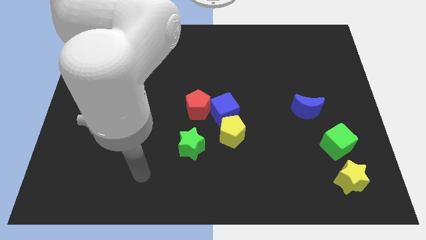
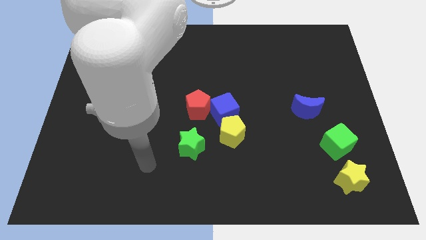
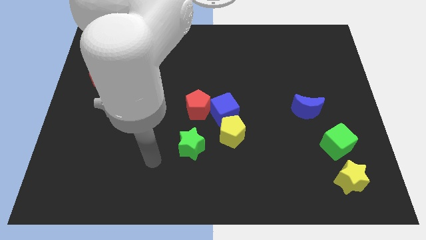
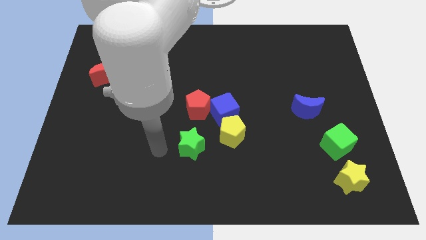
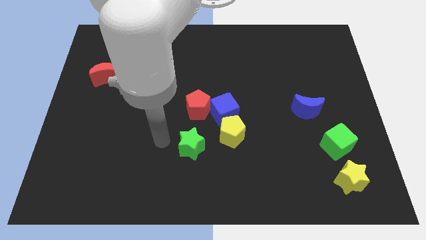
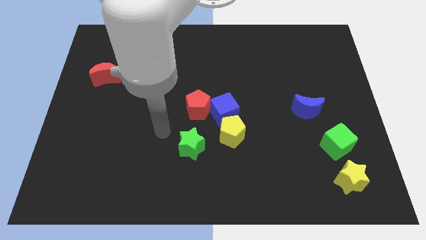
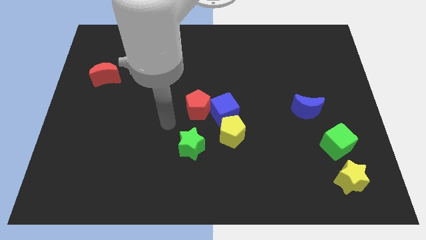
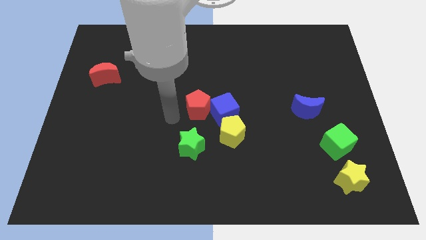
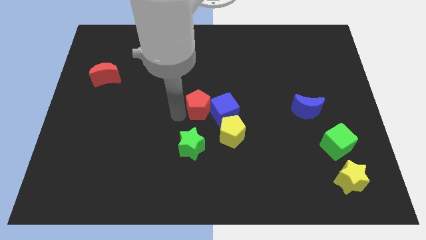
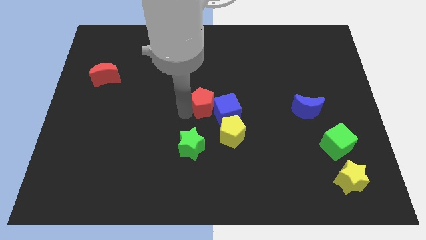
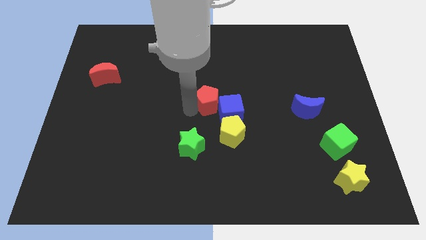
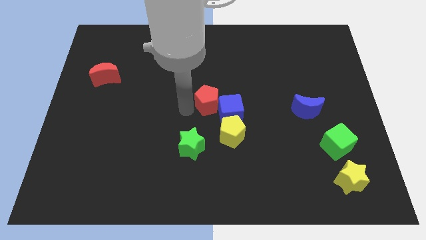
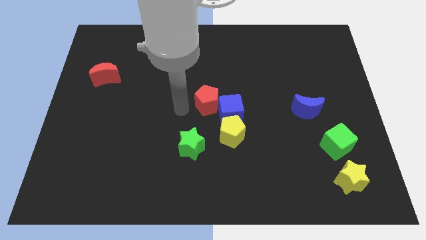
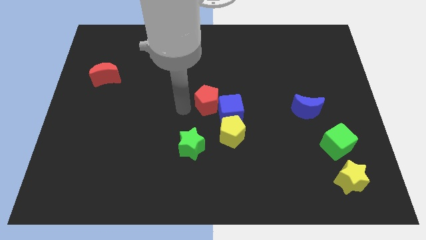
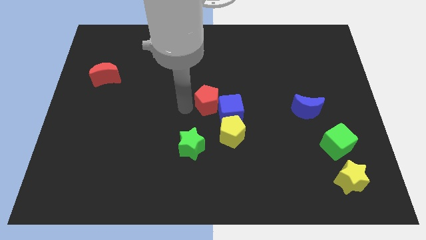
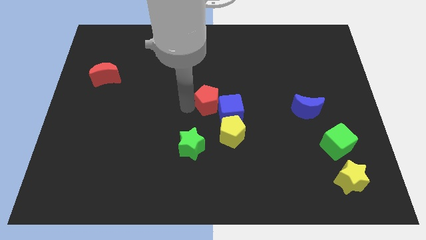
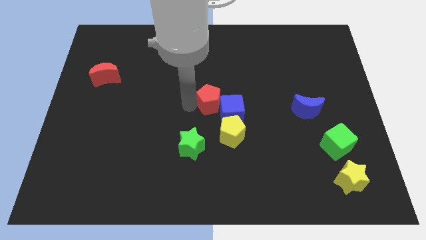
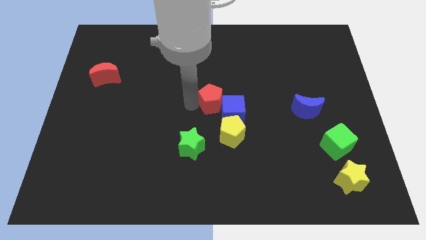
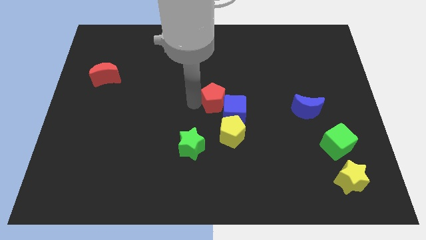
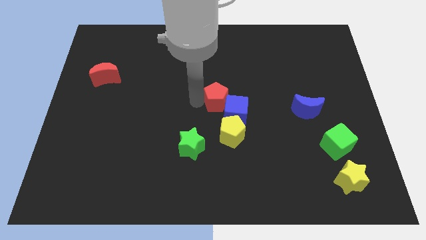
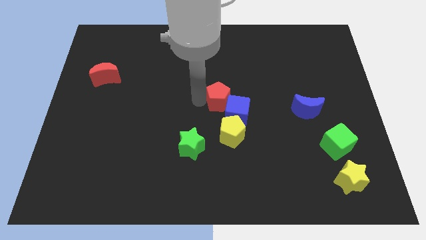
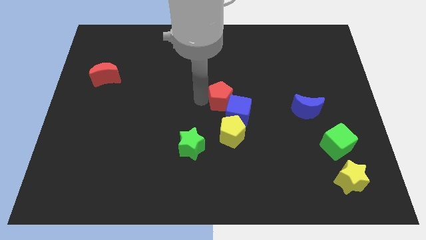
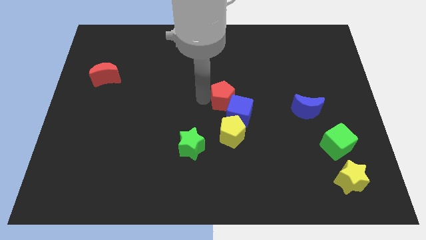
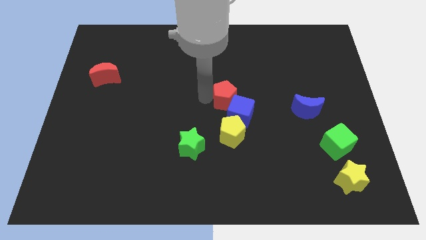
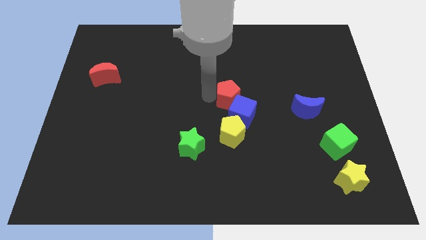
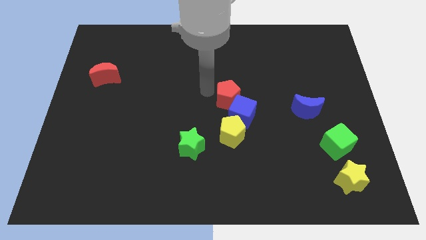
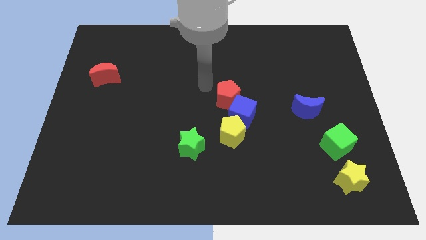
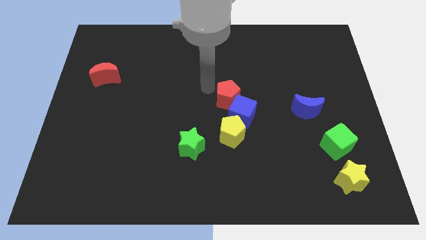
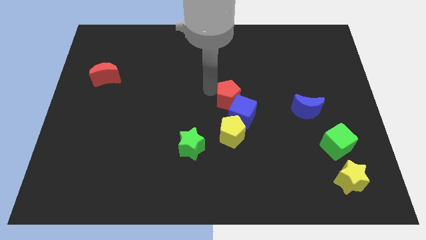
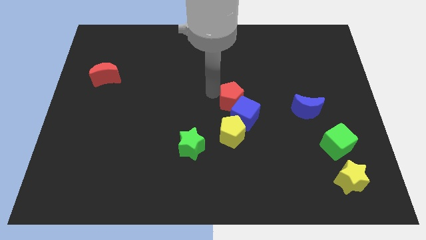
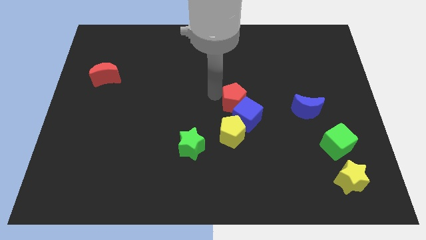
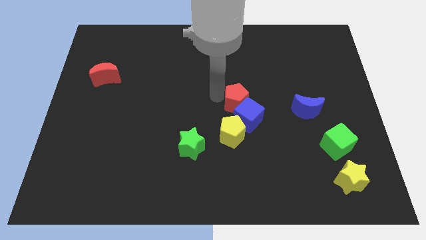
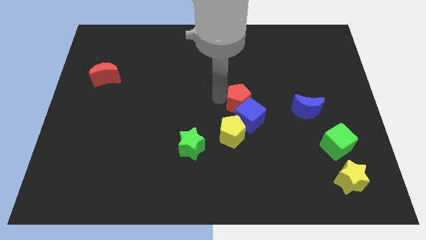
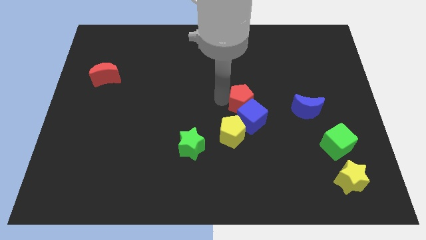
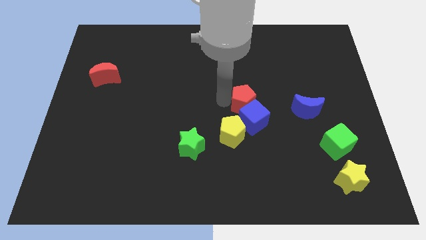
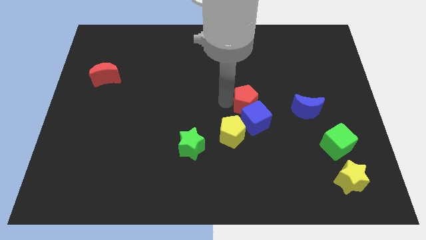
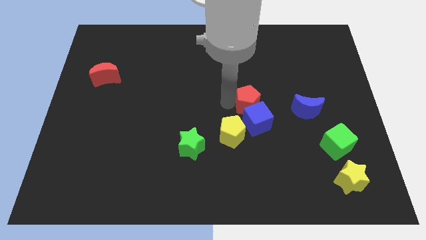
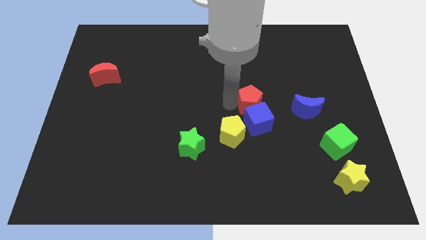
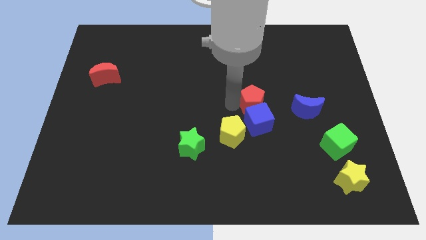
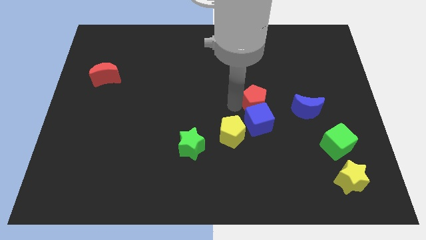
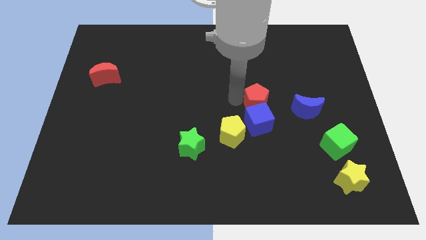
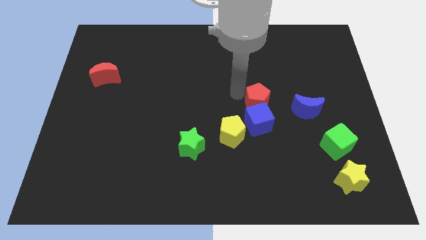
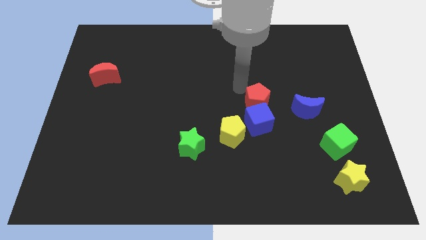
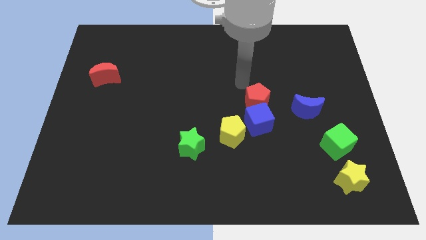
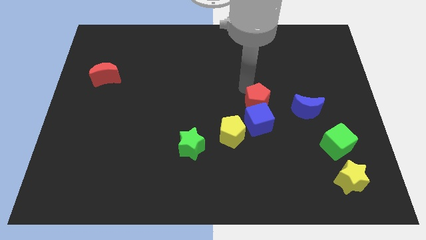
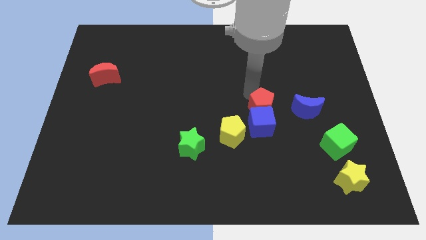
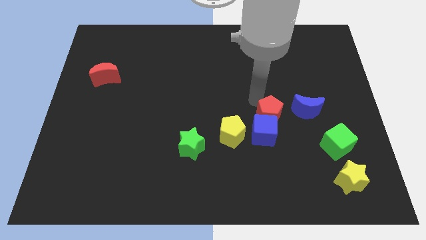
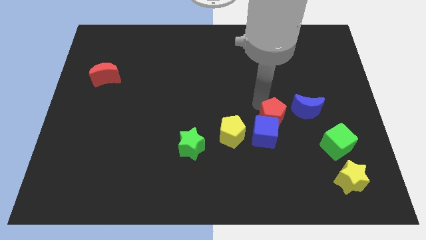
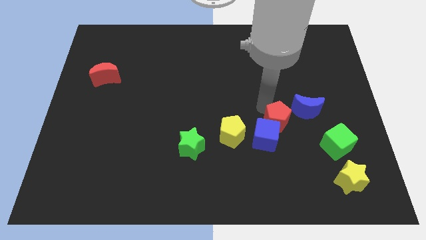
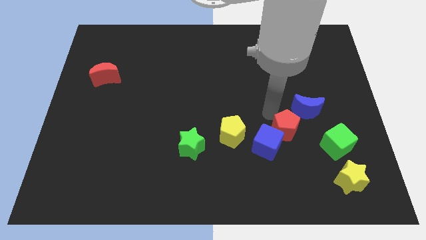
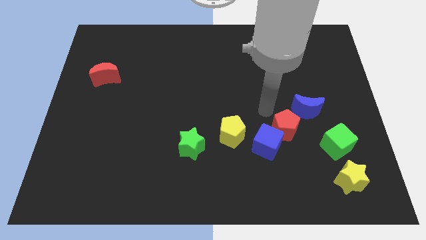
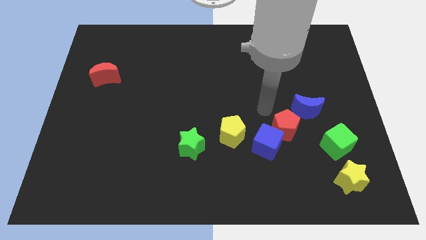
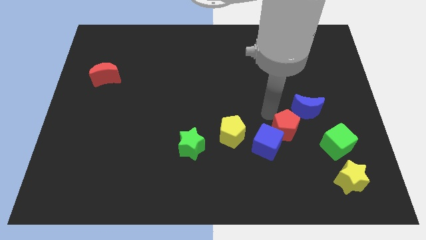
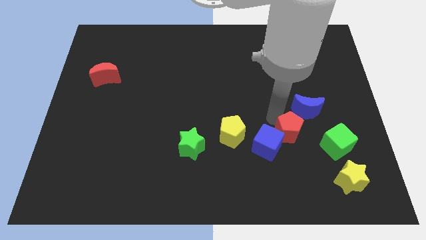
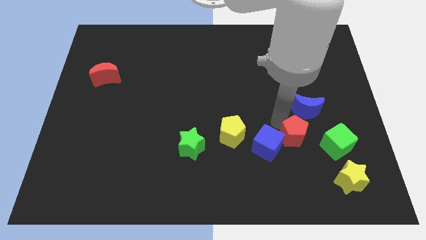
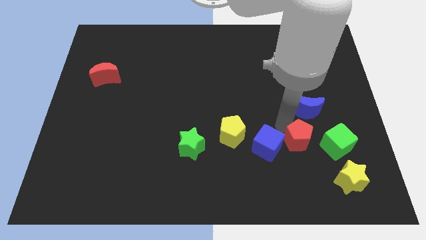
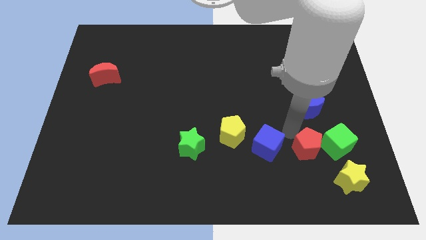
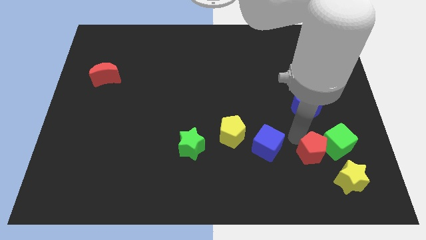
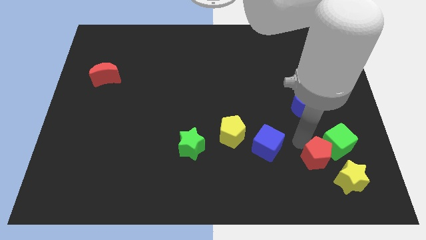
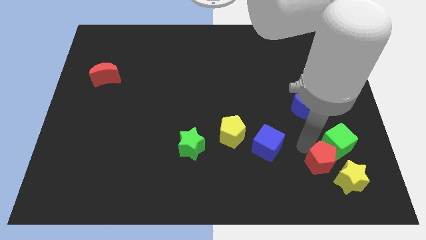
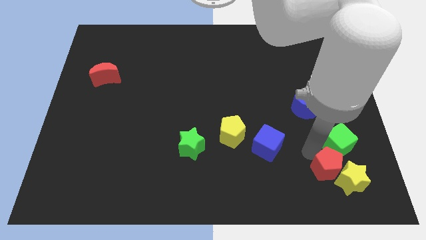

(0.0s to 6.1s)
push the red pentagon close to the yellow star
